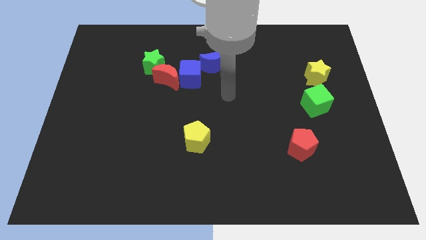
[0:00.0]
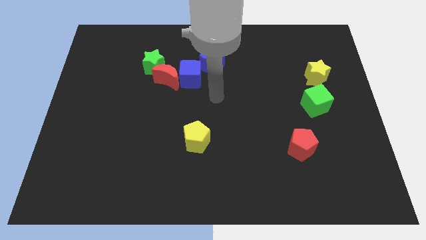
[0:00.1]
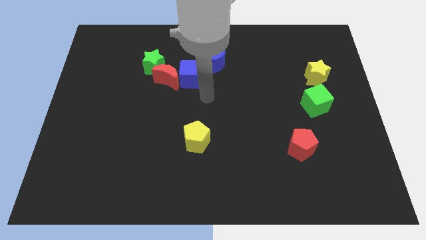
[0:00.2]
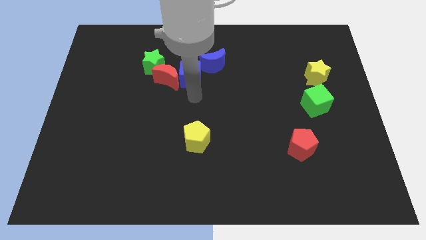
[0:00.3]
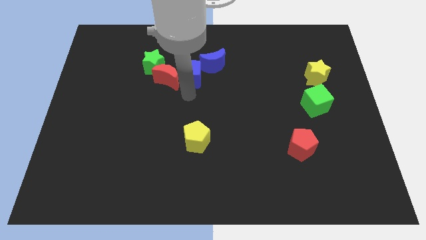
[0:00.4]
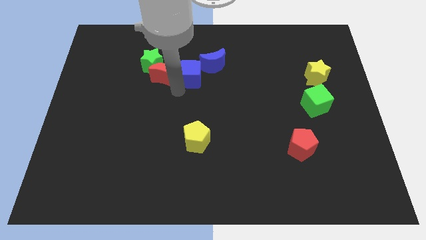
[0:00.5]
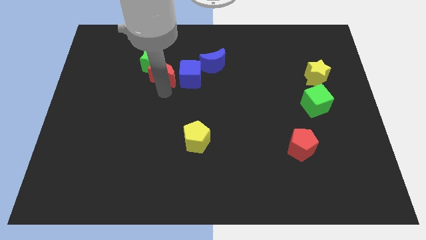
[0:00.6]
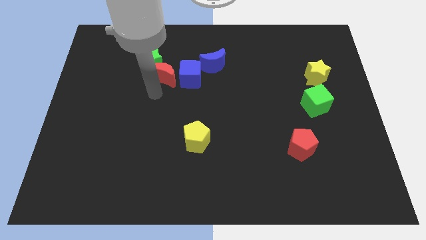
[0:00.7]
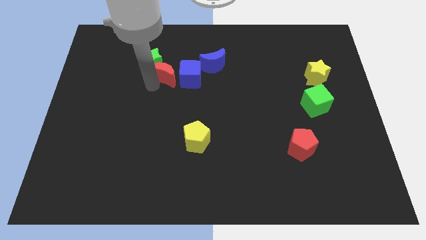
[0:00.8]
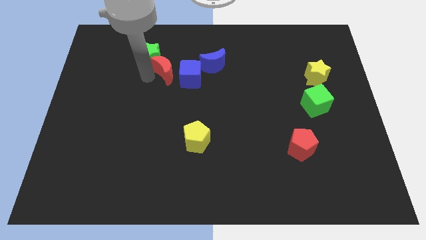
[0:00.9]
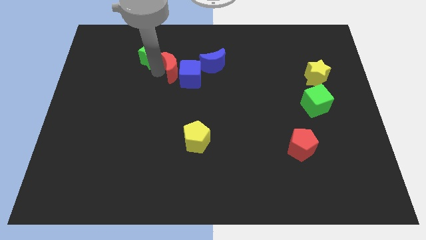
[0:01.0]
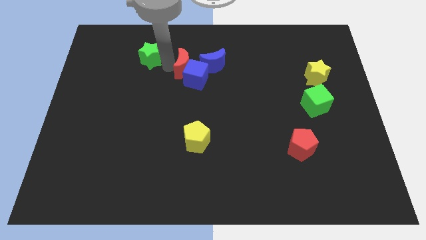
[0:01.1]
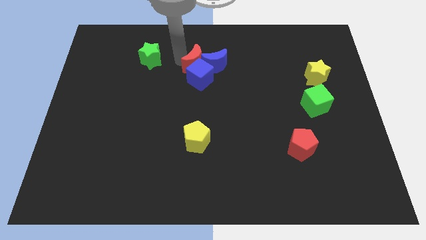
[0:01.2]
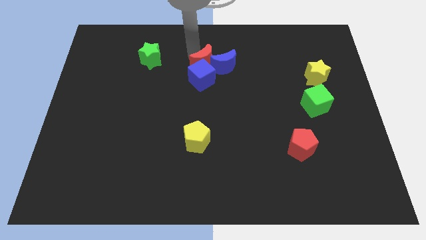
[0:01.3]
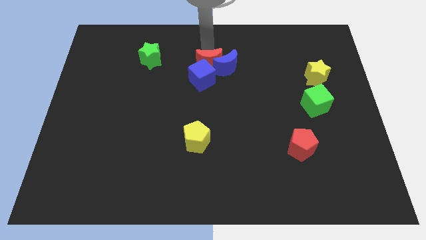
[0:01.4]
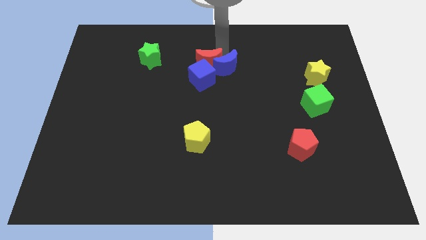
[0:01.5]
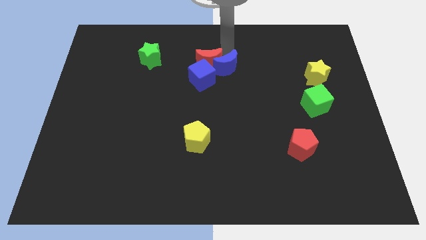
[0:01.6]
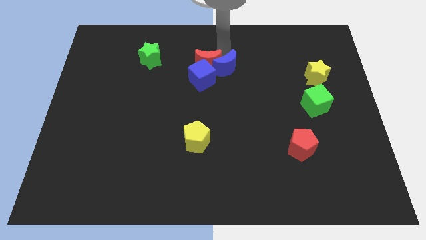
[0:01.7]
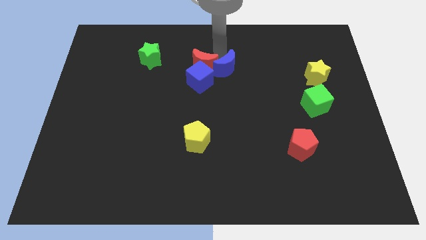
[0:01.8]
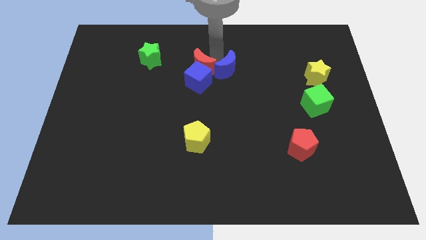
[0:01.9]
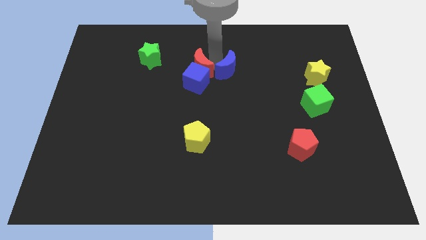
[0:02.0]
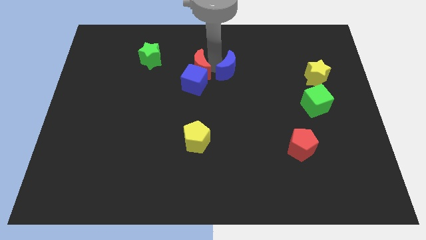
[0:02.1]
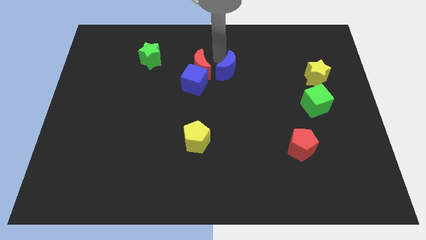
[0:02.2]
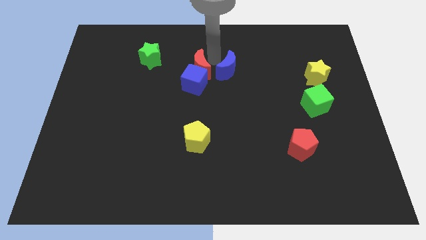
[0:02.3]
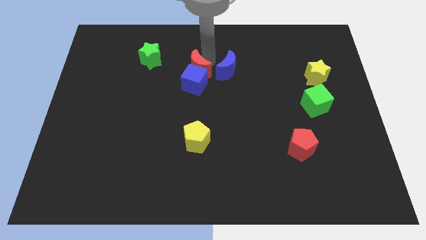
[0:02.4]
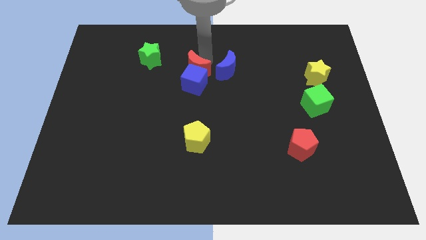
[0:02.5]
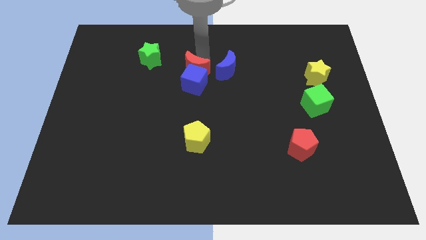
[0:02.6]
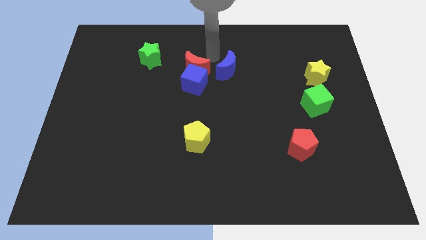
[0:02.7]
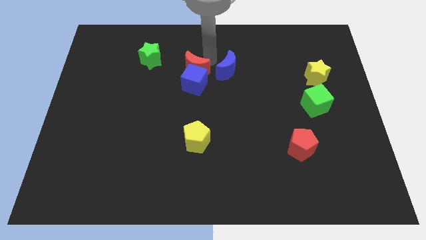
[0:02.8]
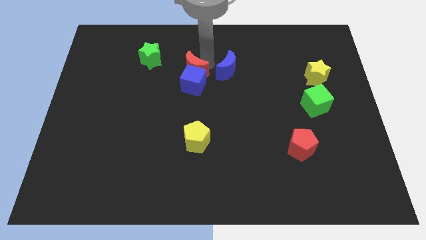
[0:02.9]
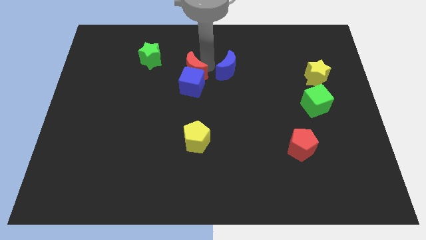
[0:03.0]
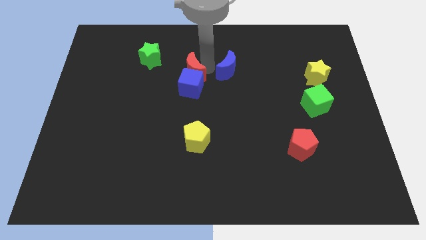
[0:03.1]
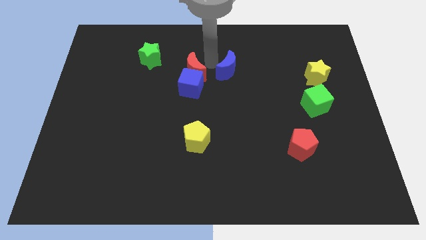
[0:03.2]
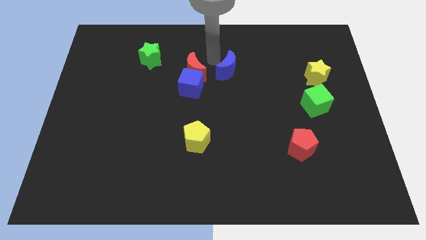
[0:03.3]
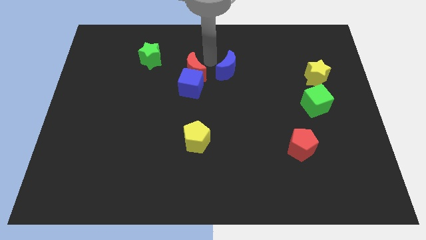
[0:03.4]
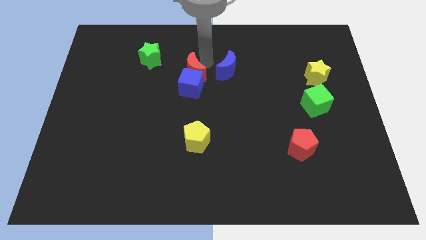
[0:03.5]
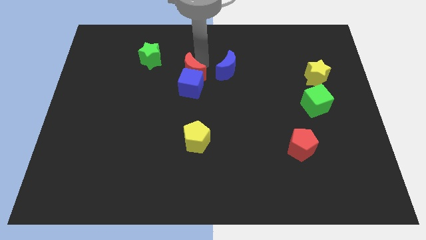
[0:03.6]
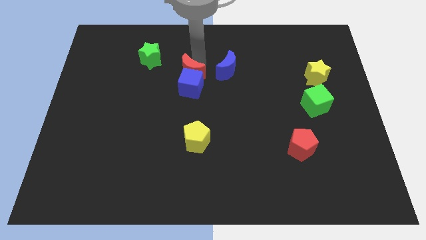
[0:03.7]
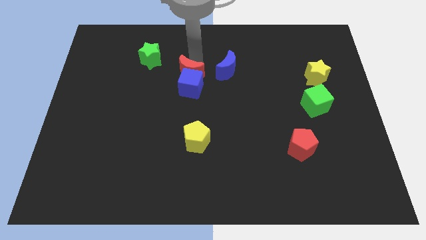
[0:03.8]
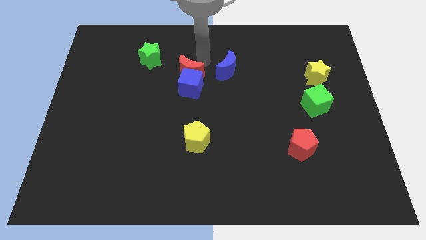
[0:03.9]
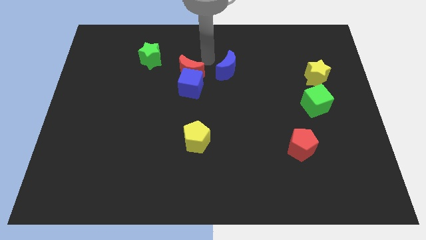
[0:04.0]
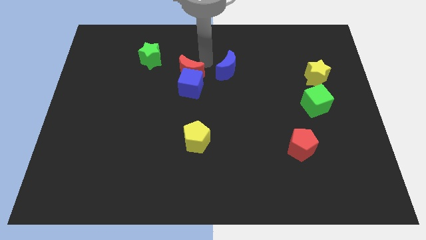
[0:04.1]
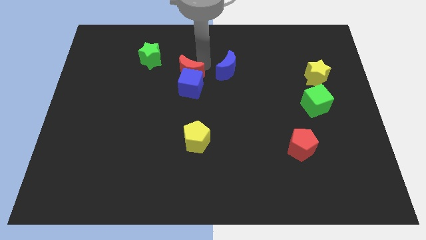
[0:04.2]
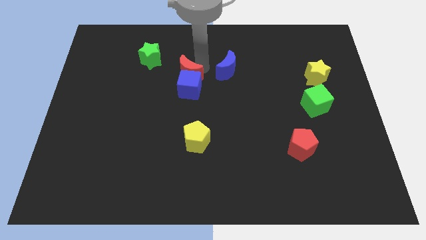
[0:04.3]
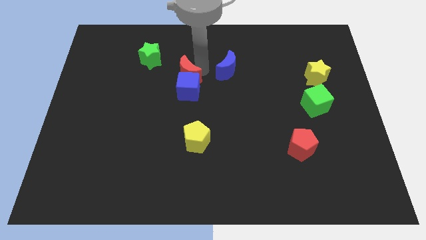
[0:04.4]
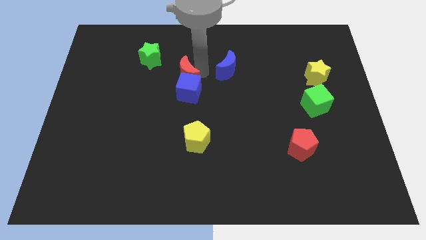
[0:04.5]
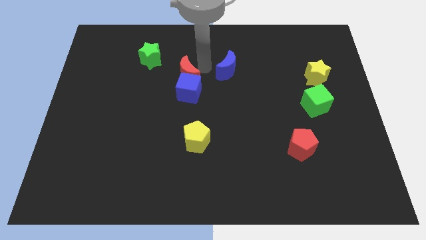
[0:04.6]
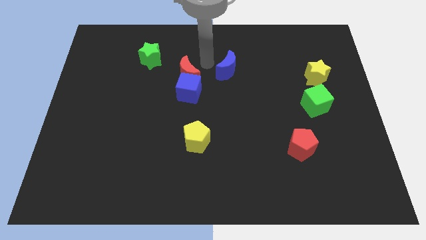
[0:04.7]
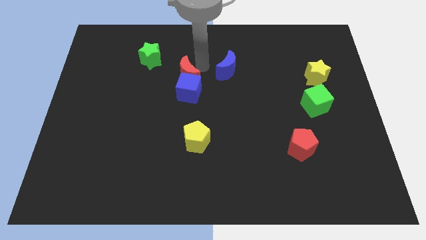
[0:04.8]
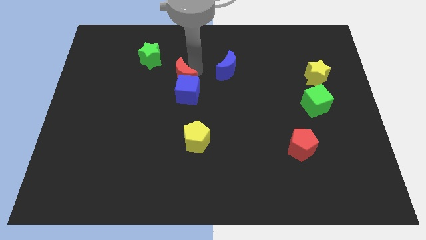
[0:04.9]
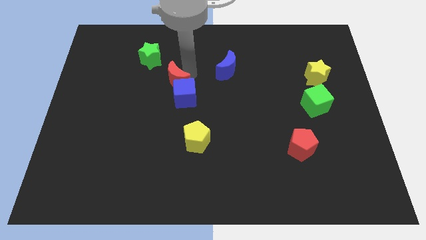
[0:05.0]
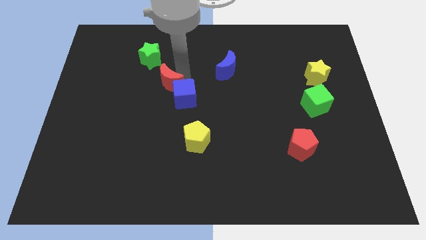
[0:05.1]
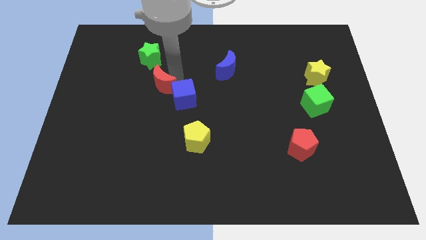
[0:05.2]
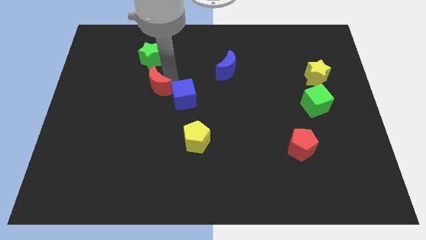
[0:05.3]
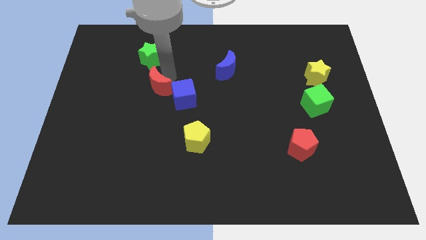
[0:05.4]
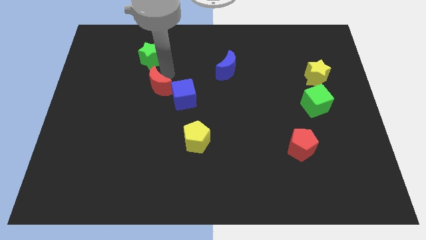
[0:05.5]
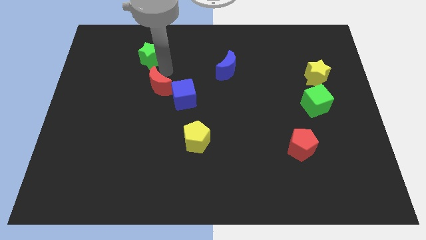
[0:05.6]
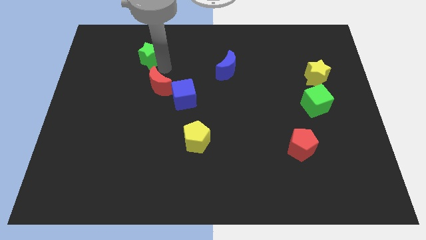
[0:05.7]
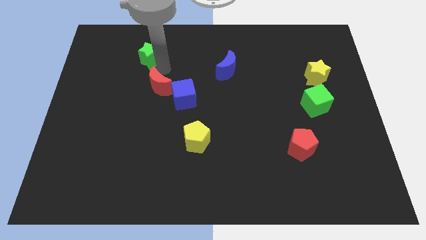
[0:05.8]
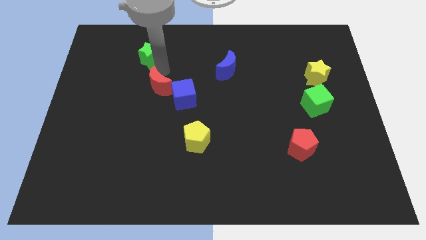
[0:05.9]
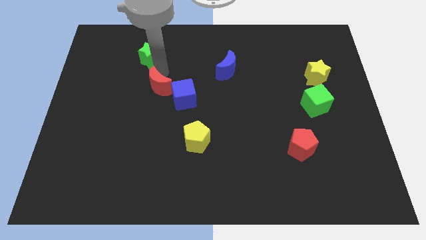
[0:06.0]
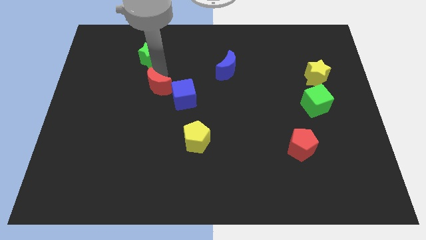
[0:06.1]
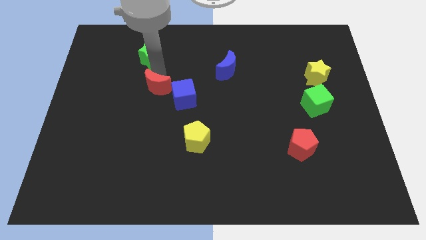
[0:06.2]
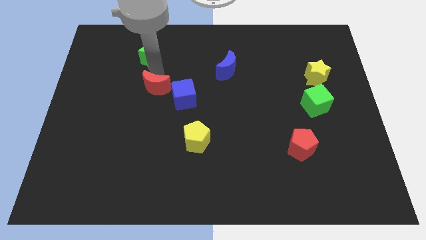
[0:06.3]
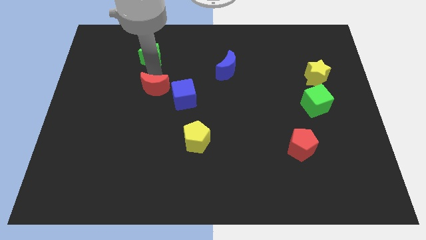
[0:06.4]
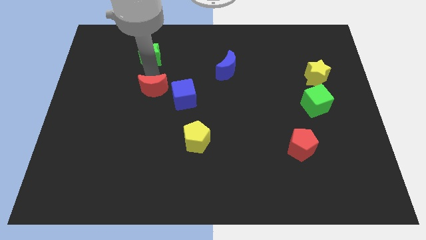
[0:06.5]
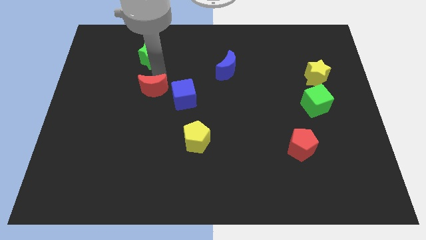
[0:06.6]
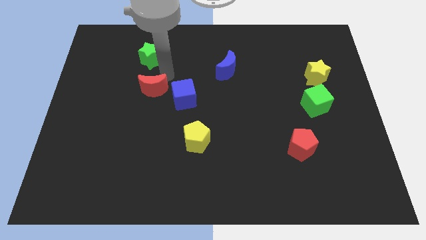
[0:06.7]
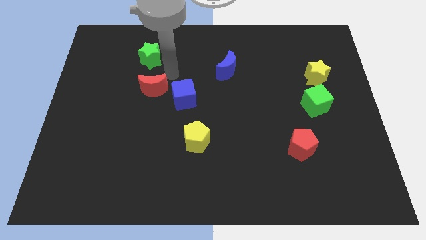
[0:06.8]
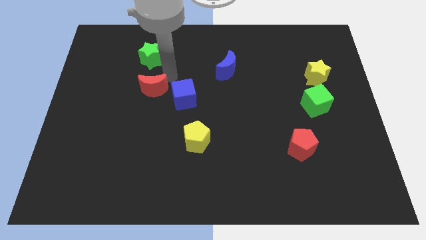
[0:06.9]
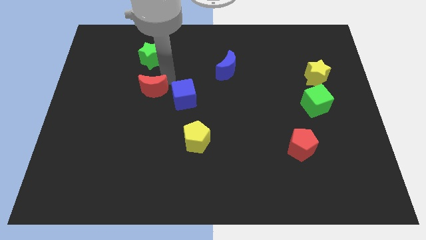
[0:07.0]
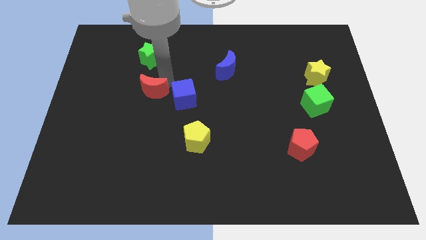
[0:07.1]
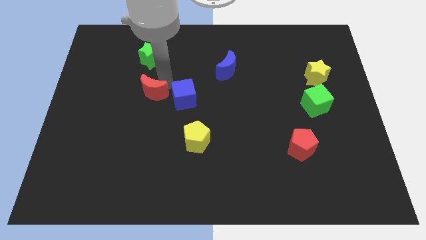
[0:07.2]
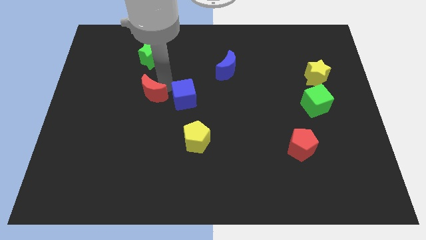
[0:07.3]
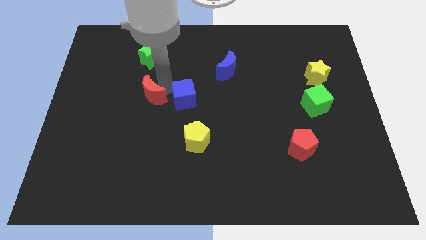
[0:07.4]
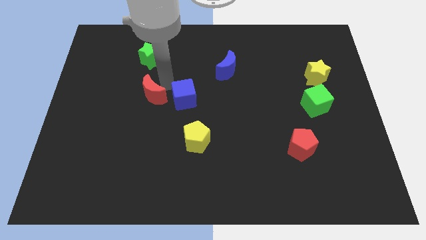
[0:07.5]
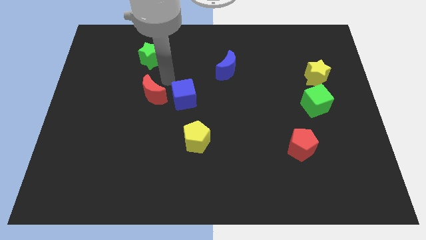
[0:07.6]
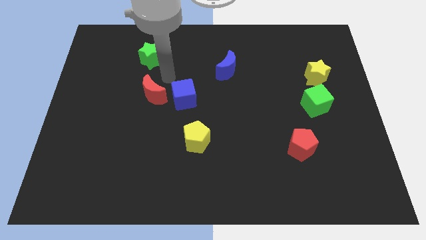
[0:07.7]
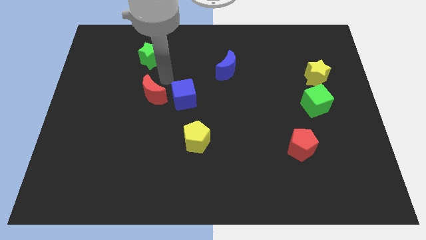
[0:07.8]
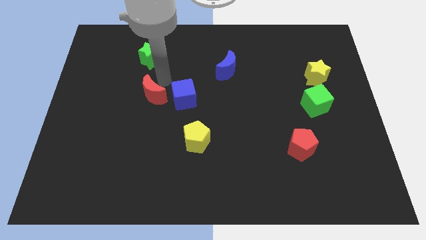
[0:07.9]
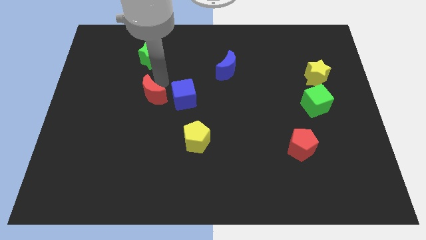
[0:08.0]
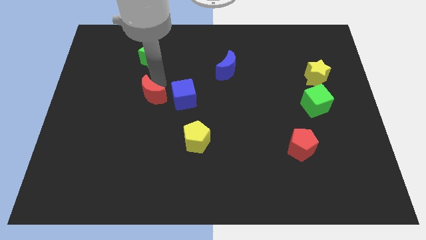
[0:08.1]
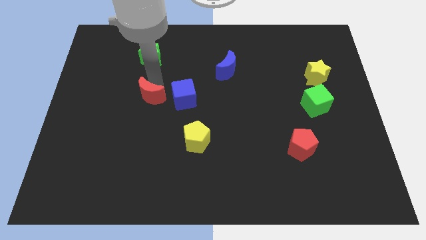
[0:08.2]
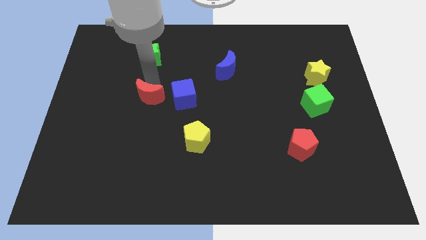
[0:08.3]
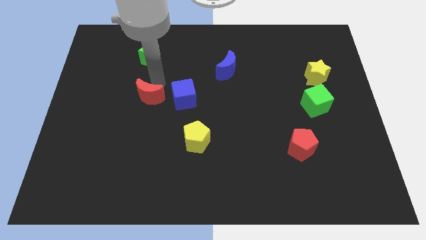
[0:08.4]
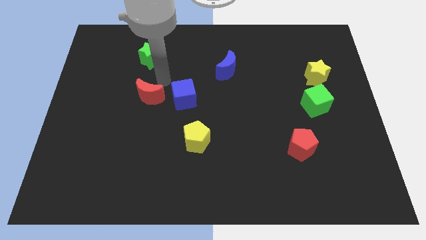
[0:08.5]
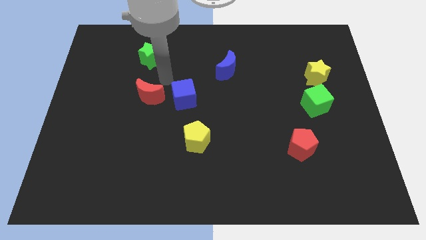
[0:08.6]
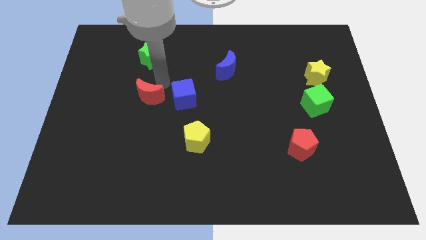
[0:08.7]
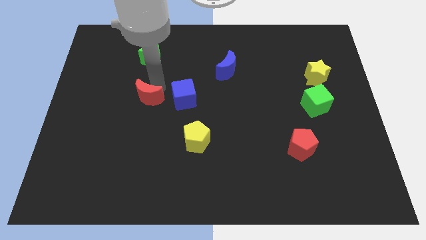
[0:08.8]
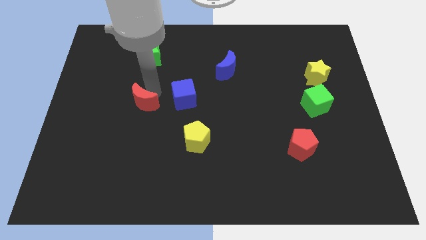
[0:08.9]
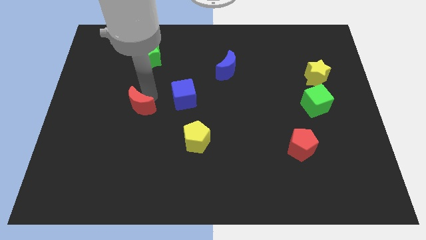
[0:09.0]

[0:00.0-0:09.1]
pull the red moon apart from the green star and blue cube

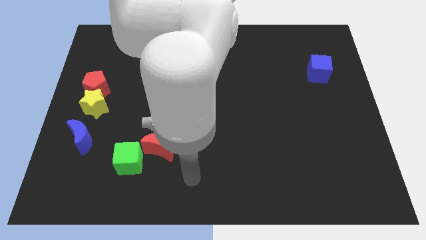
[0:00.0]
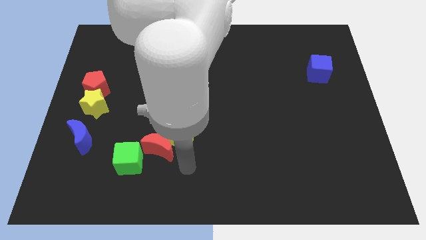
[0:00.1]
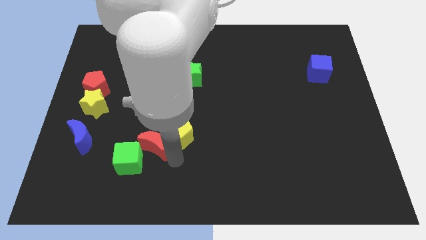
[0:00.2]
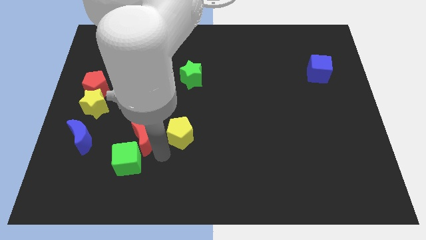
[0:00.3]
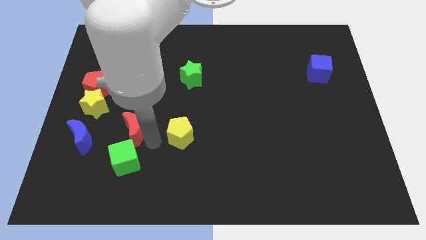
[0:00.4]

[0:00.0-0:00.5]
pull the yellow pentagon apart from the red moon
